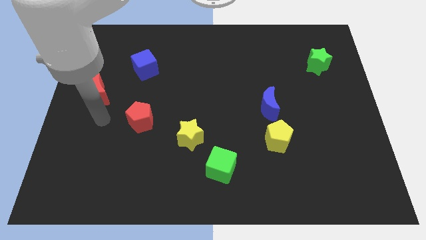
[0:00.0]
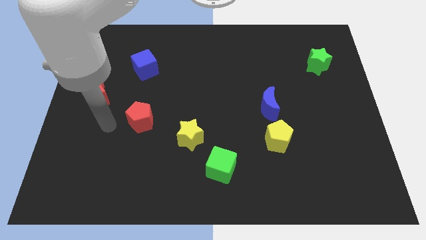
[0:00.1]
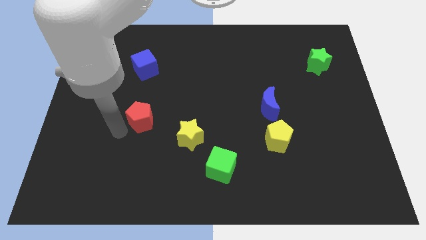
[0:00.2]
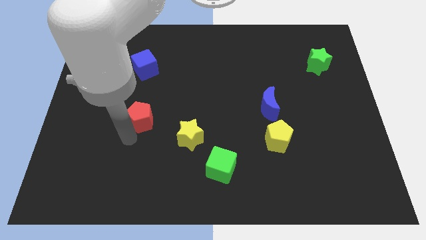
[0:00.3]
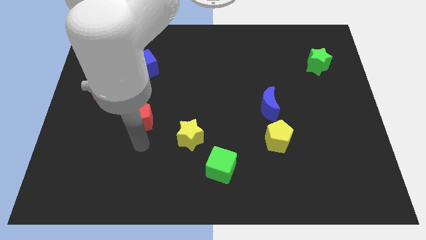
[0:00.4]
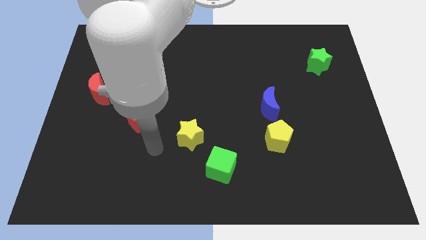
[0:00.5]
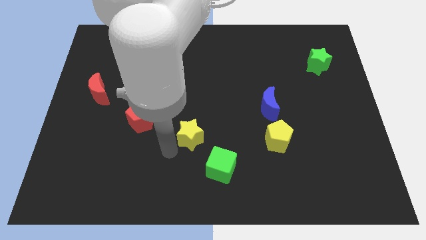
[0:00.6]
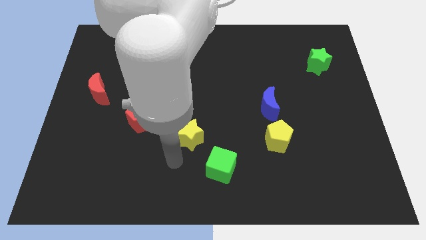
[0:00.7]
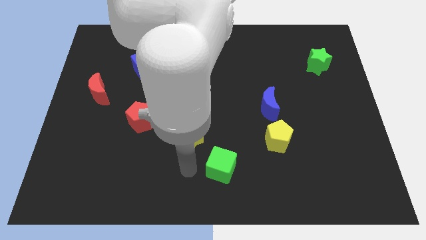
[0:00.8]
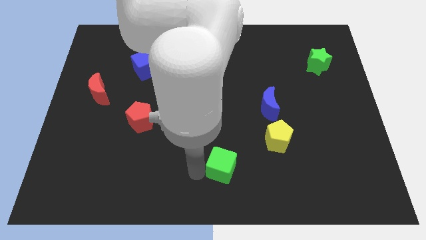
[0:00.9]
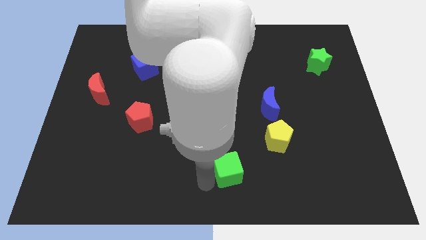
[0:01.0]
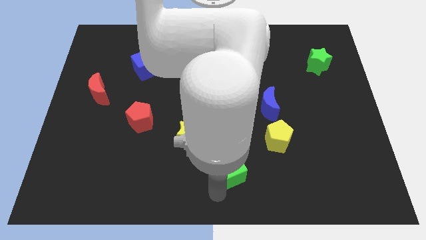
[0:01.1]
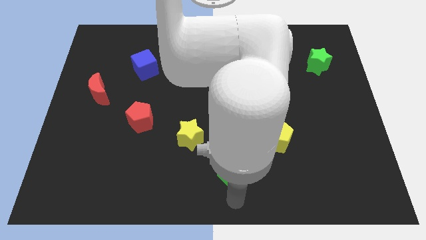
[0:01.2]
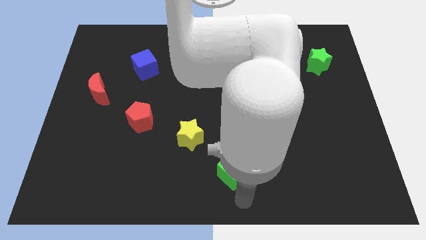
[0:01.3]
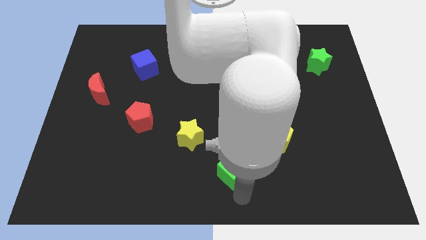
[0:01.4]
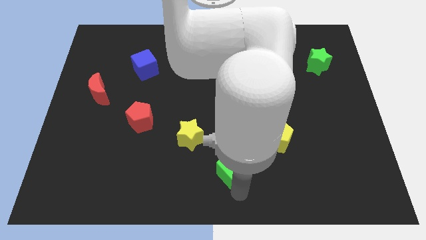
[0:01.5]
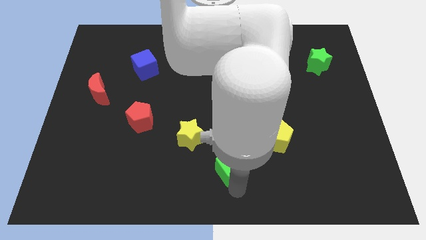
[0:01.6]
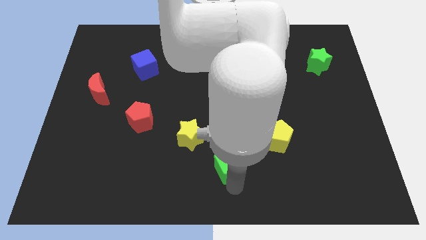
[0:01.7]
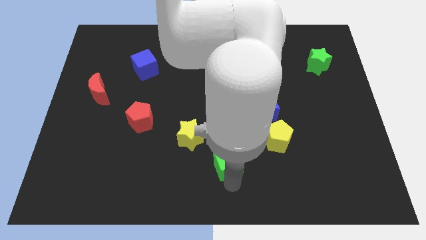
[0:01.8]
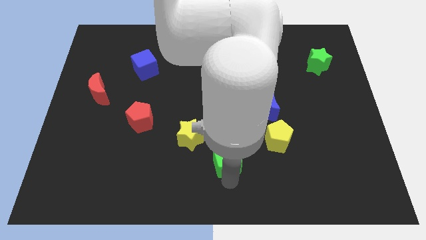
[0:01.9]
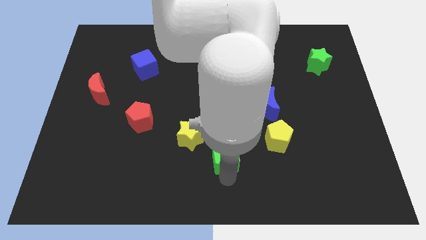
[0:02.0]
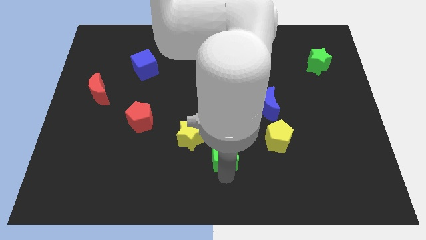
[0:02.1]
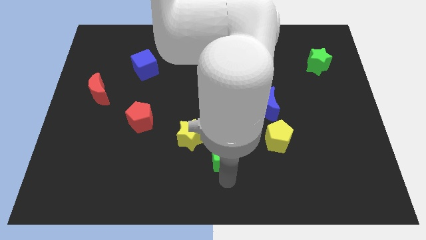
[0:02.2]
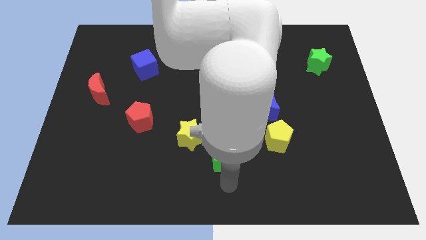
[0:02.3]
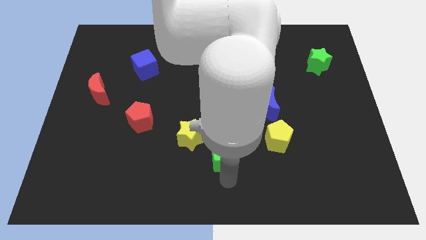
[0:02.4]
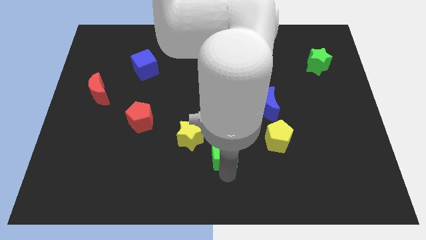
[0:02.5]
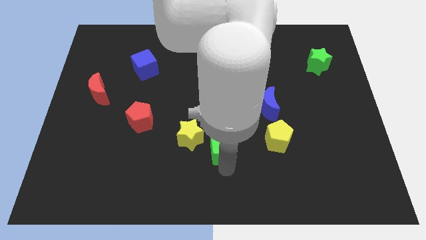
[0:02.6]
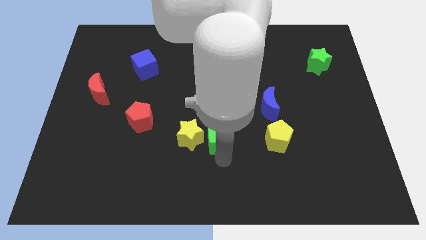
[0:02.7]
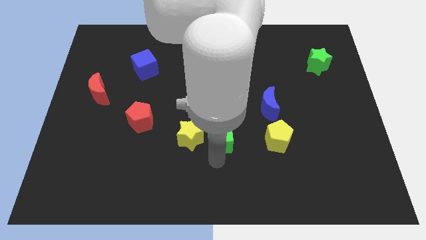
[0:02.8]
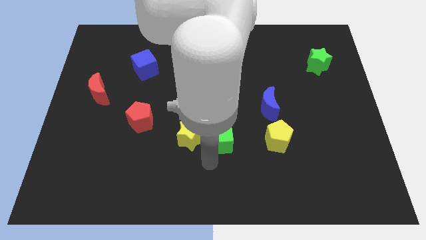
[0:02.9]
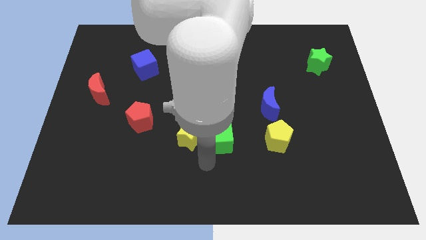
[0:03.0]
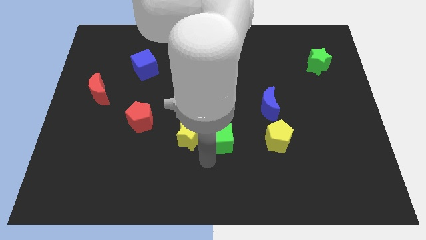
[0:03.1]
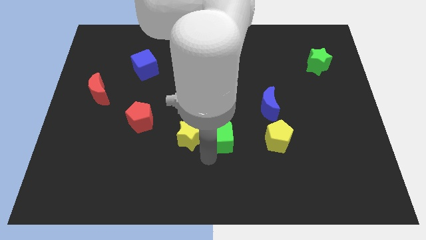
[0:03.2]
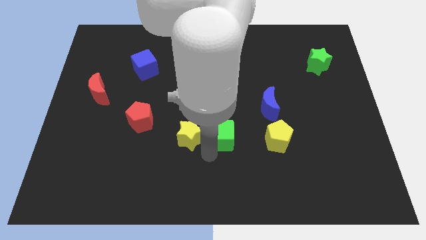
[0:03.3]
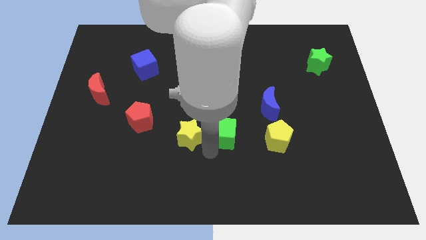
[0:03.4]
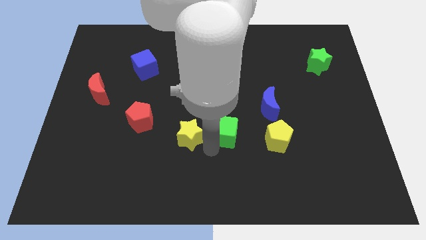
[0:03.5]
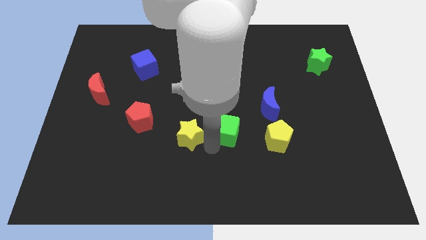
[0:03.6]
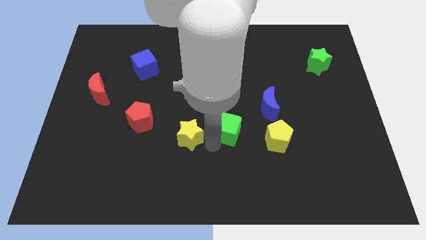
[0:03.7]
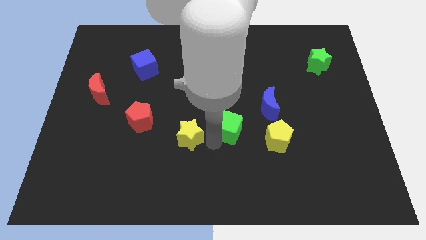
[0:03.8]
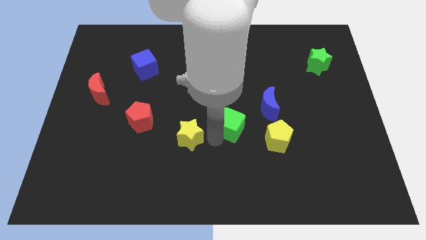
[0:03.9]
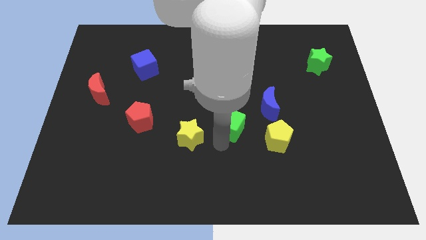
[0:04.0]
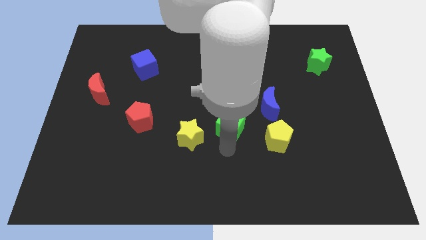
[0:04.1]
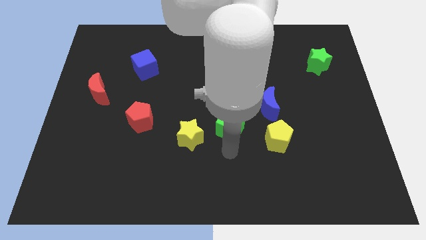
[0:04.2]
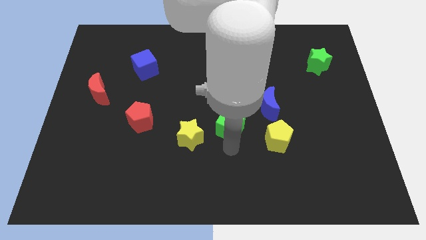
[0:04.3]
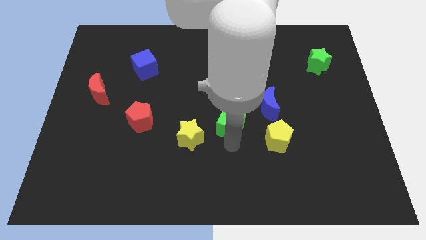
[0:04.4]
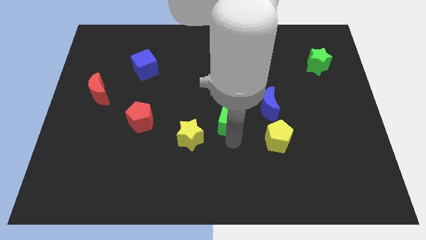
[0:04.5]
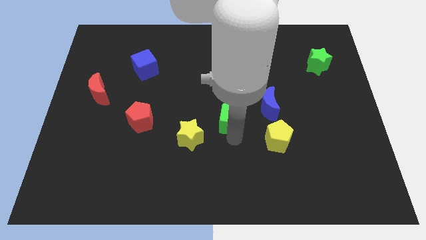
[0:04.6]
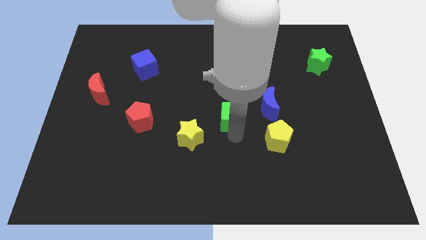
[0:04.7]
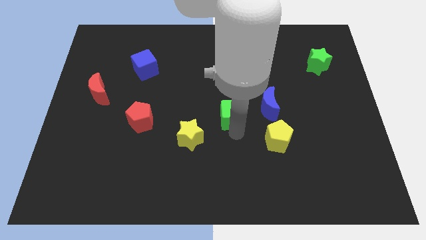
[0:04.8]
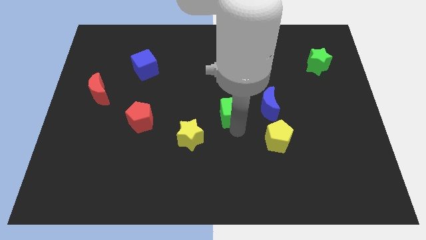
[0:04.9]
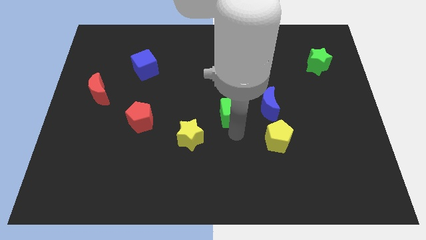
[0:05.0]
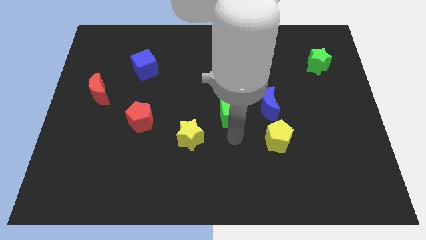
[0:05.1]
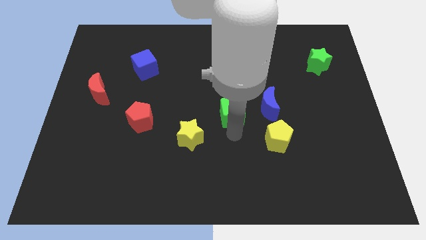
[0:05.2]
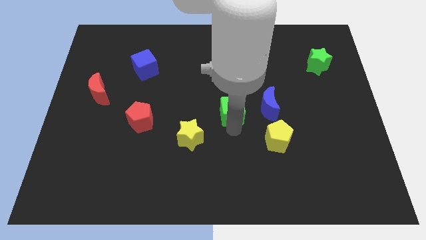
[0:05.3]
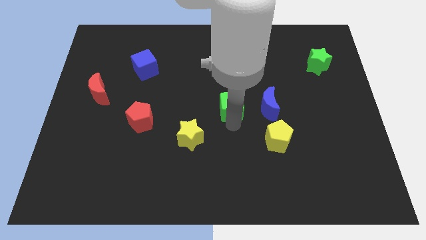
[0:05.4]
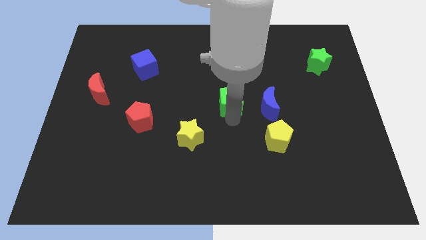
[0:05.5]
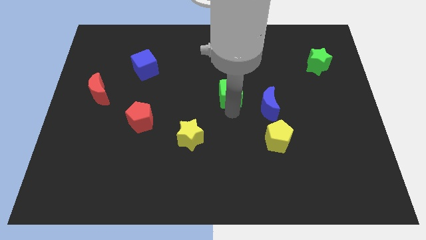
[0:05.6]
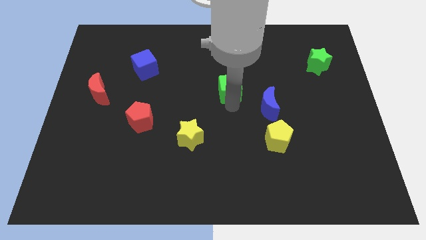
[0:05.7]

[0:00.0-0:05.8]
move the green cube upwards

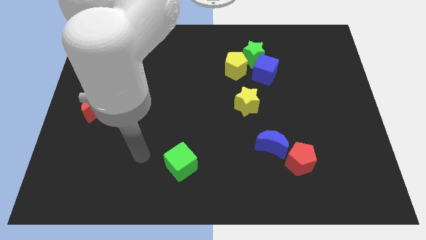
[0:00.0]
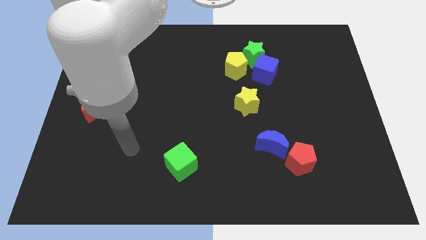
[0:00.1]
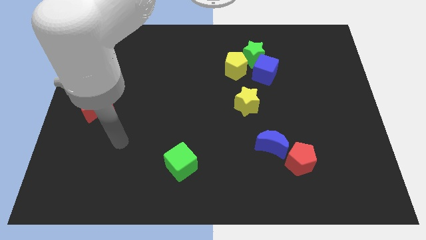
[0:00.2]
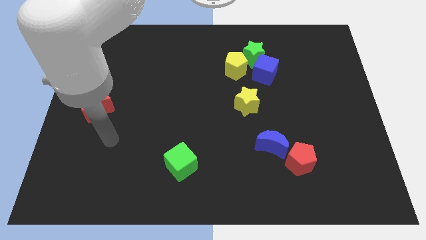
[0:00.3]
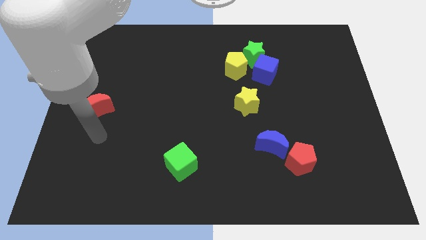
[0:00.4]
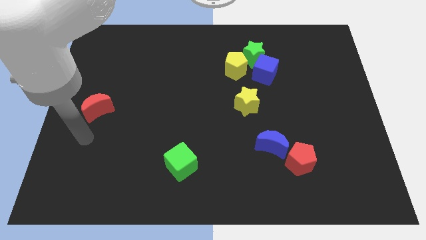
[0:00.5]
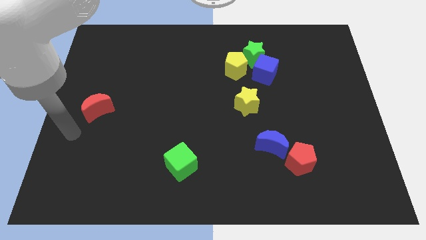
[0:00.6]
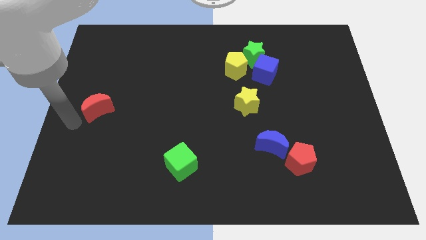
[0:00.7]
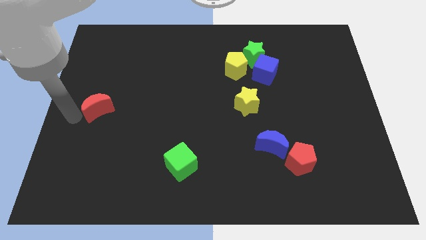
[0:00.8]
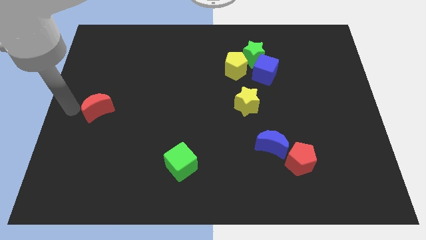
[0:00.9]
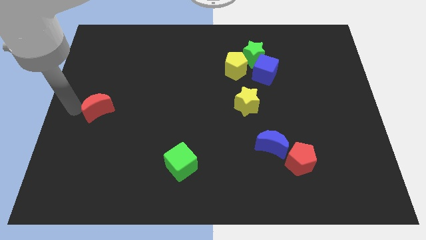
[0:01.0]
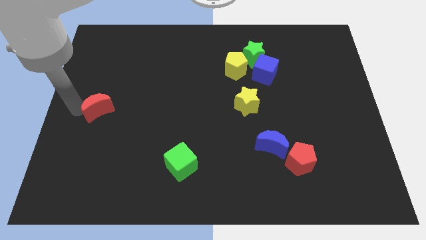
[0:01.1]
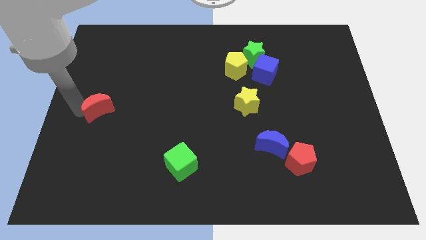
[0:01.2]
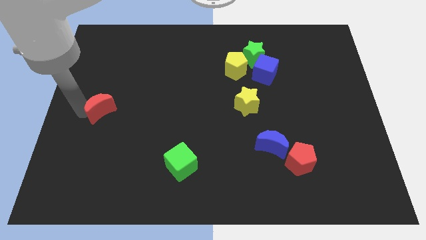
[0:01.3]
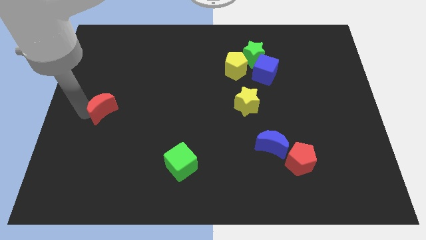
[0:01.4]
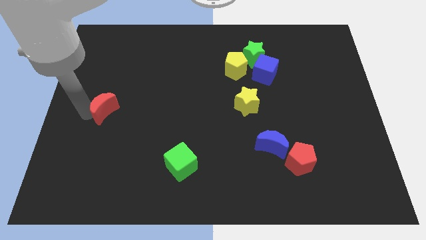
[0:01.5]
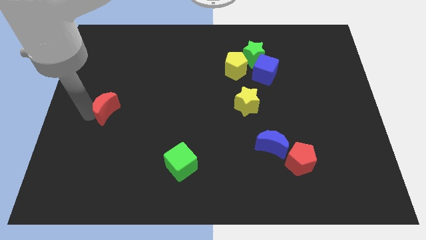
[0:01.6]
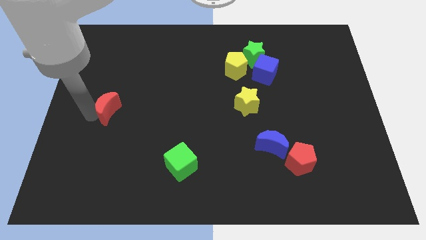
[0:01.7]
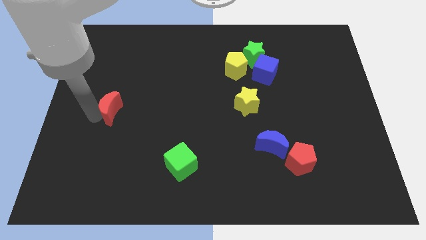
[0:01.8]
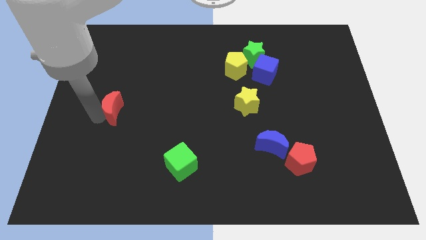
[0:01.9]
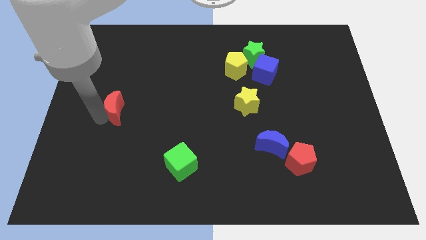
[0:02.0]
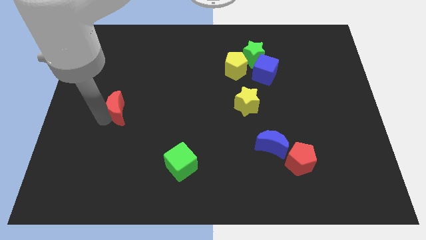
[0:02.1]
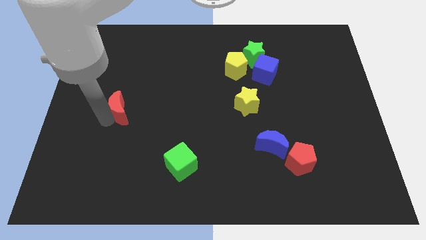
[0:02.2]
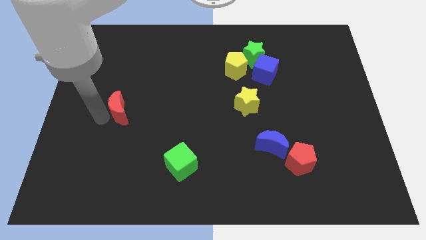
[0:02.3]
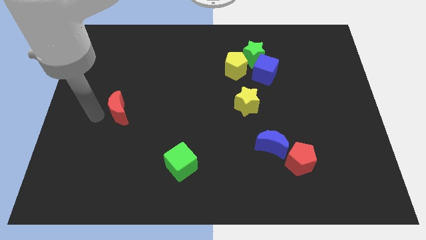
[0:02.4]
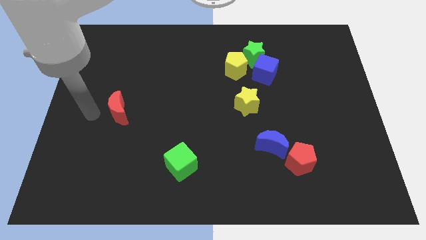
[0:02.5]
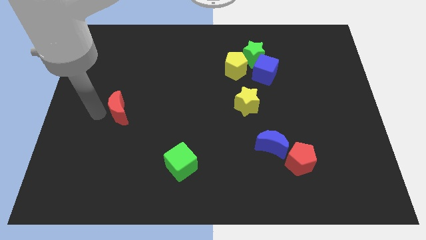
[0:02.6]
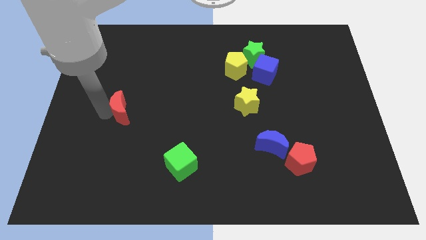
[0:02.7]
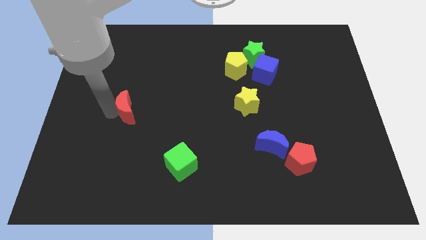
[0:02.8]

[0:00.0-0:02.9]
push the red moon right somewhat
